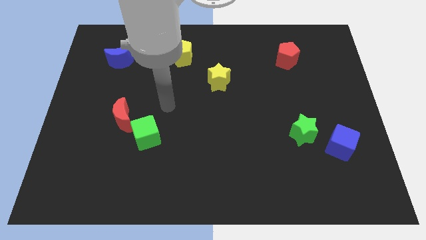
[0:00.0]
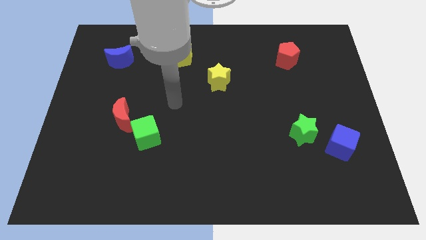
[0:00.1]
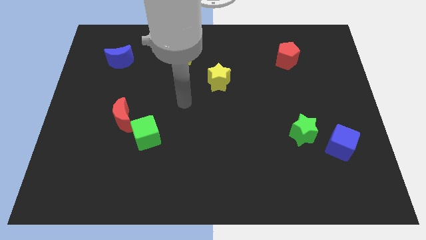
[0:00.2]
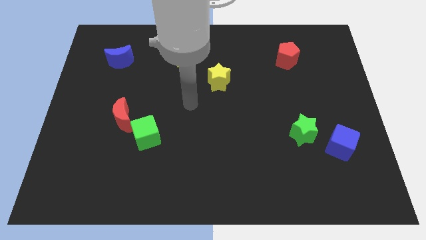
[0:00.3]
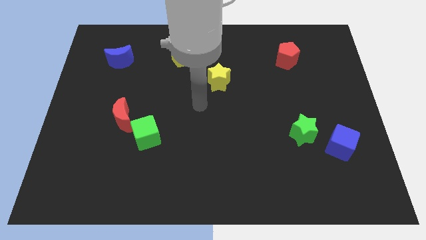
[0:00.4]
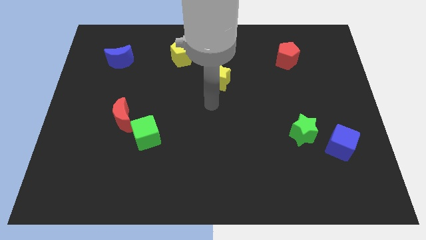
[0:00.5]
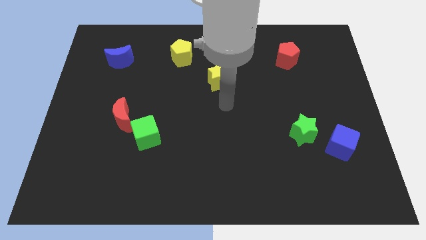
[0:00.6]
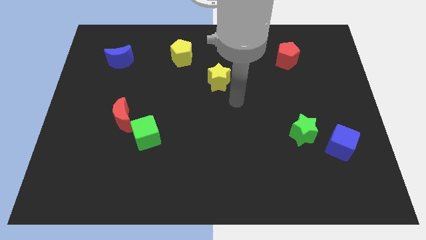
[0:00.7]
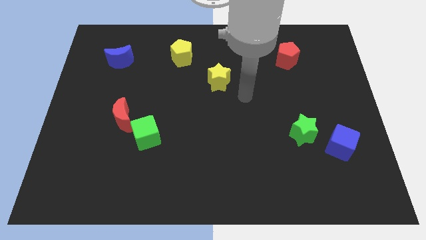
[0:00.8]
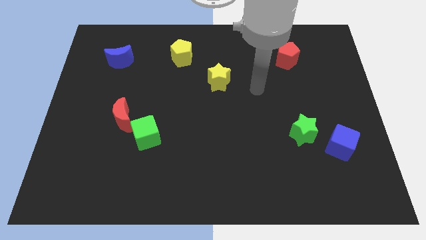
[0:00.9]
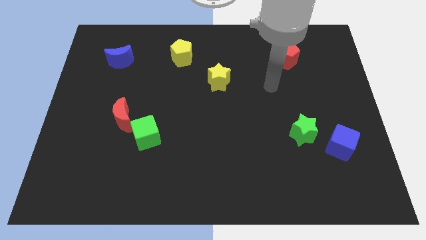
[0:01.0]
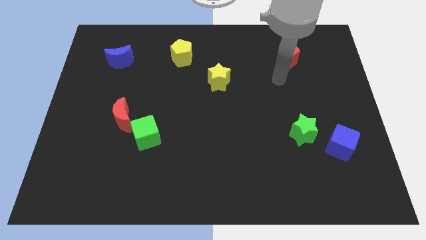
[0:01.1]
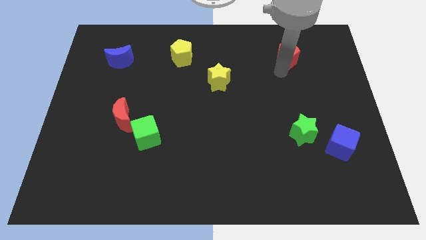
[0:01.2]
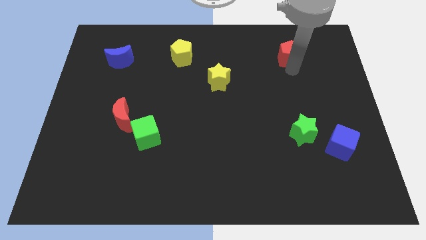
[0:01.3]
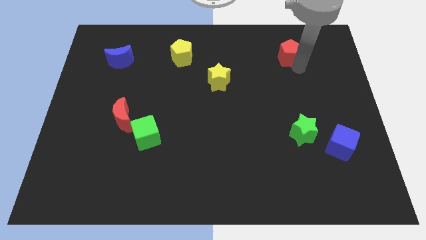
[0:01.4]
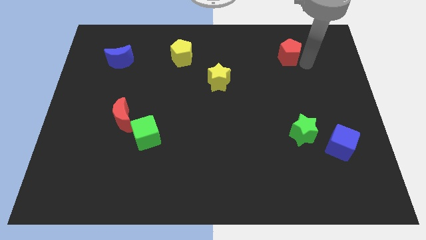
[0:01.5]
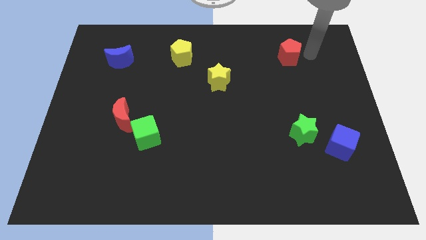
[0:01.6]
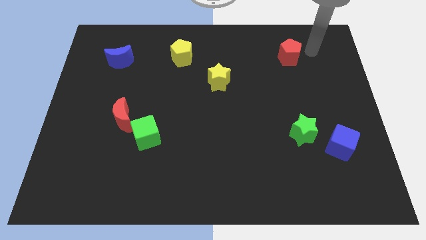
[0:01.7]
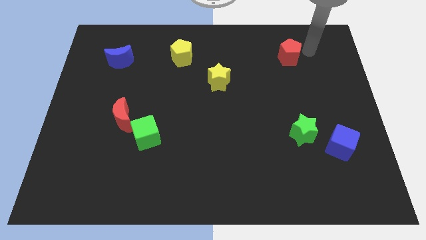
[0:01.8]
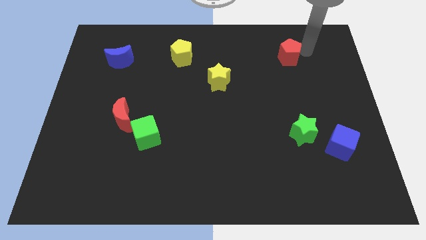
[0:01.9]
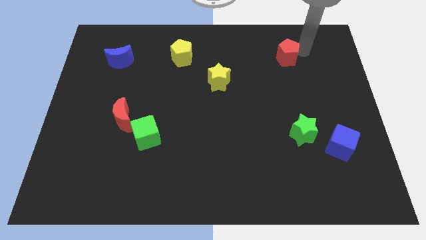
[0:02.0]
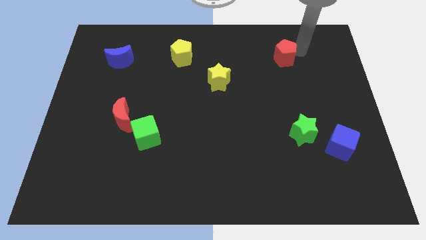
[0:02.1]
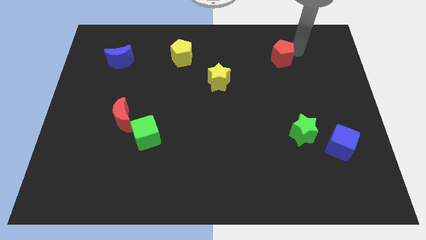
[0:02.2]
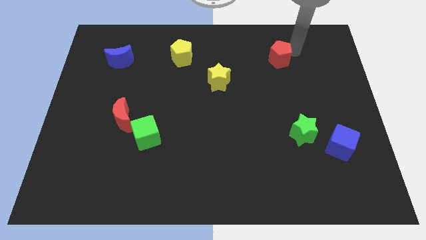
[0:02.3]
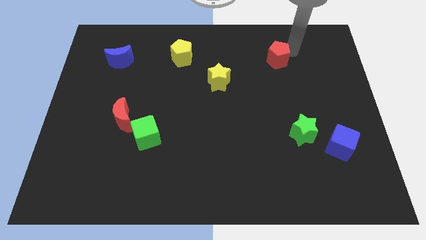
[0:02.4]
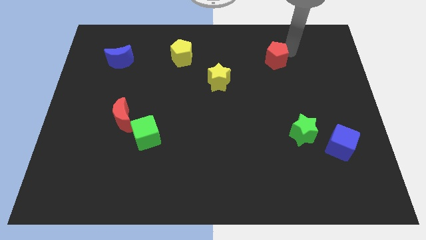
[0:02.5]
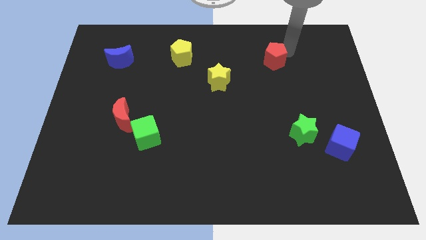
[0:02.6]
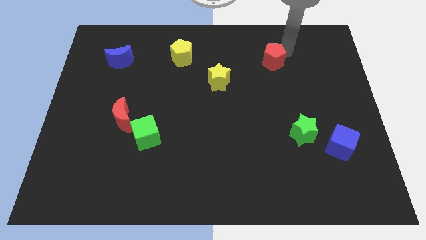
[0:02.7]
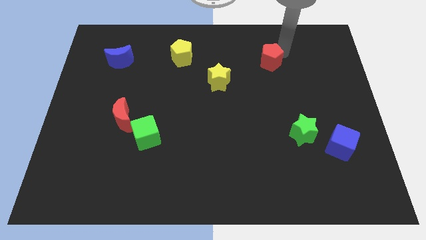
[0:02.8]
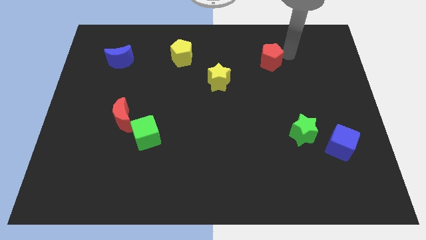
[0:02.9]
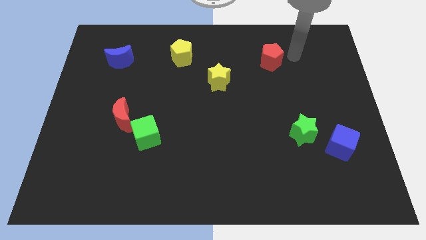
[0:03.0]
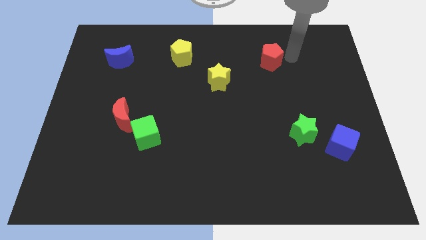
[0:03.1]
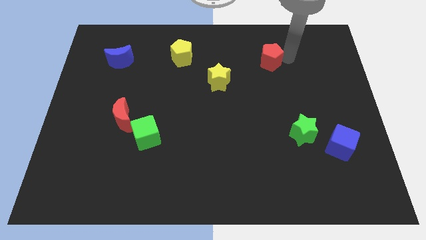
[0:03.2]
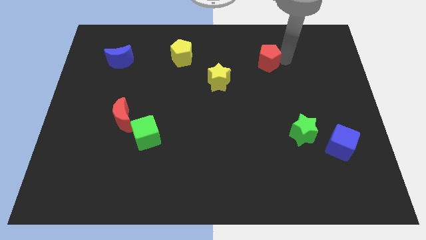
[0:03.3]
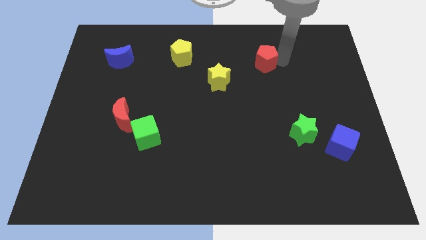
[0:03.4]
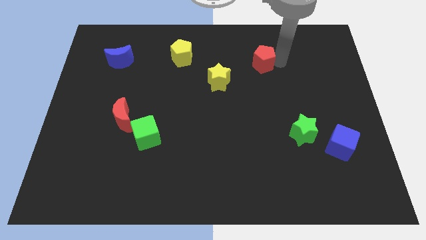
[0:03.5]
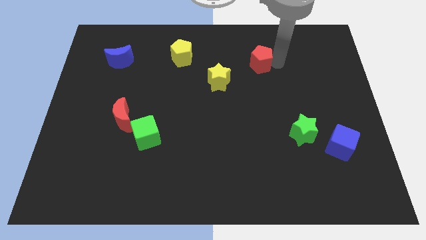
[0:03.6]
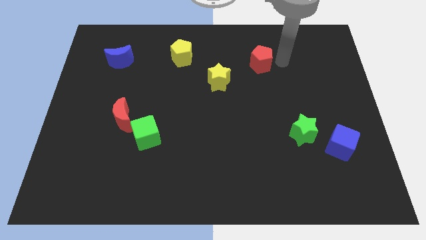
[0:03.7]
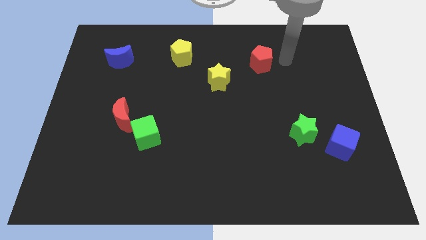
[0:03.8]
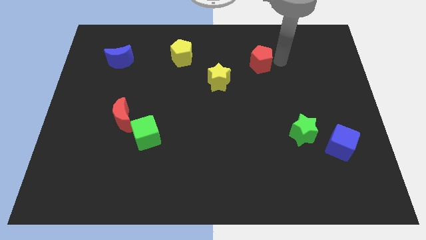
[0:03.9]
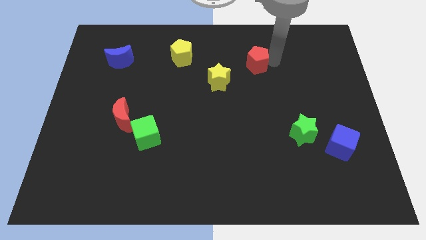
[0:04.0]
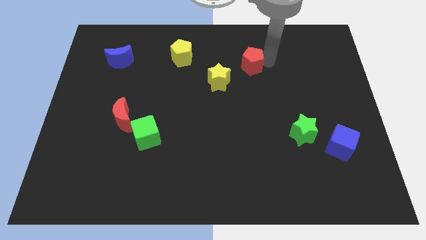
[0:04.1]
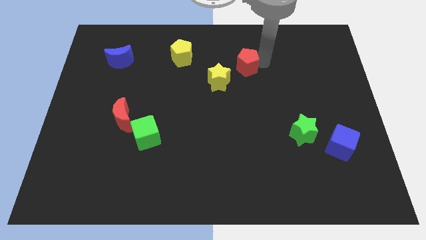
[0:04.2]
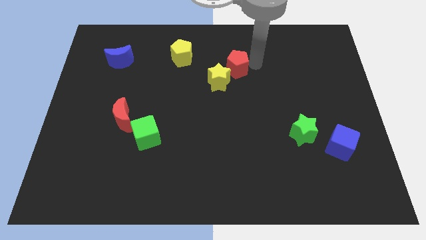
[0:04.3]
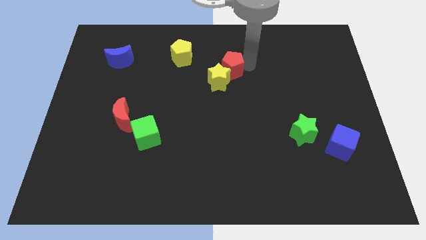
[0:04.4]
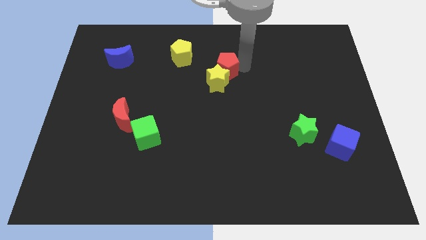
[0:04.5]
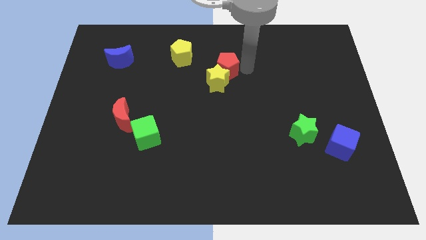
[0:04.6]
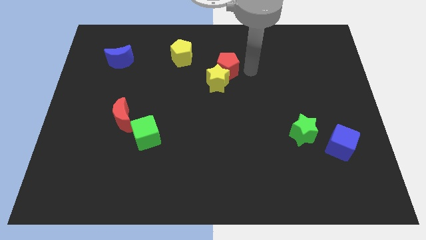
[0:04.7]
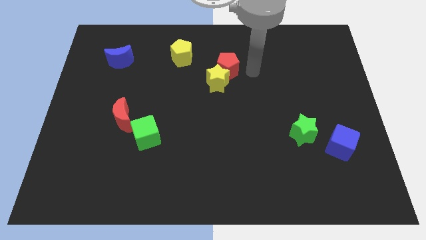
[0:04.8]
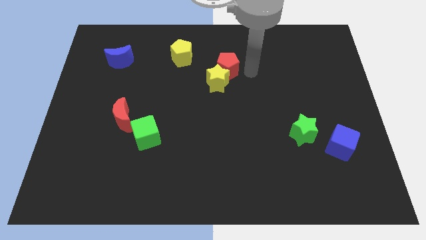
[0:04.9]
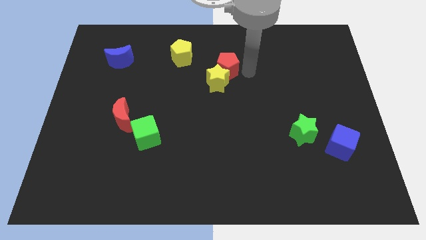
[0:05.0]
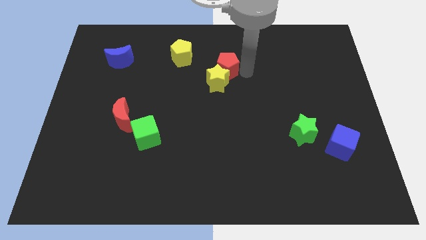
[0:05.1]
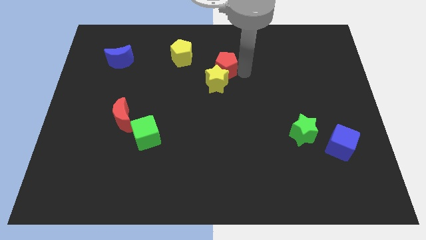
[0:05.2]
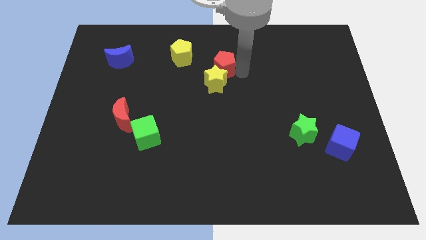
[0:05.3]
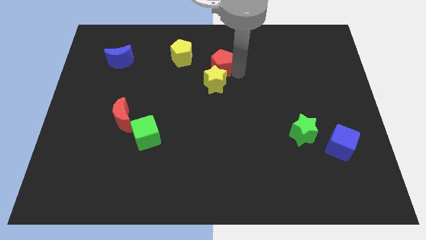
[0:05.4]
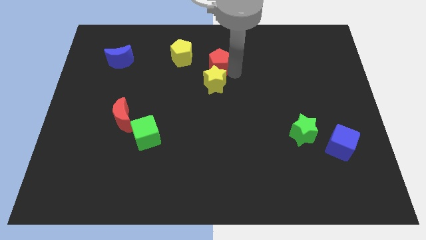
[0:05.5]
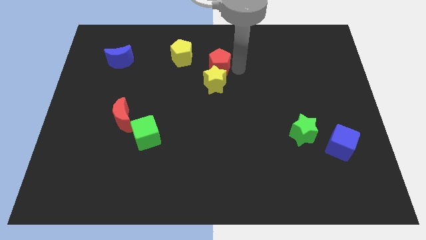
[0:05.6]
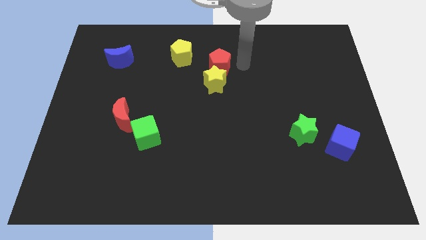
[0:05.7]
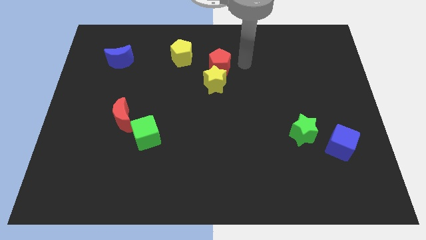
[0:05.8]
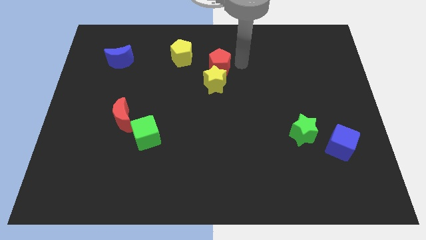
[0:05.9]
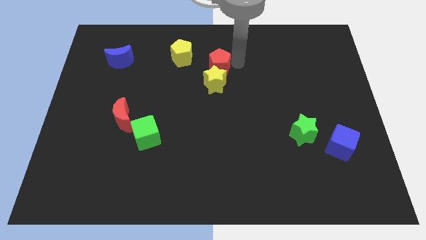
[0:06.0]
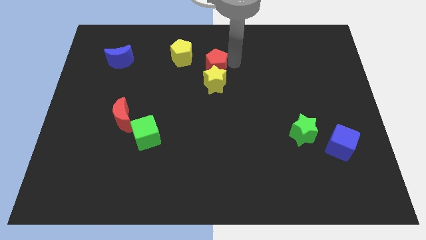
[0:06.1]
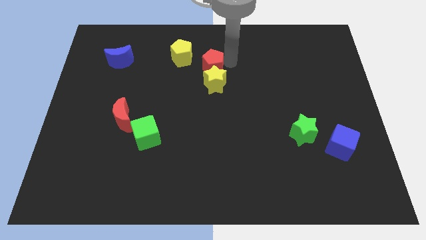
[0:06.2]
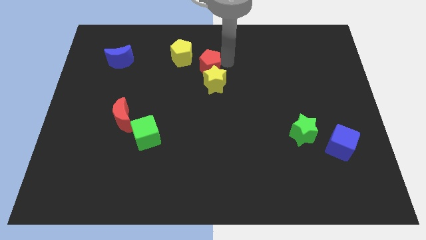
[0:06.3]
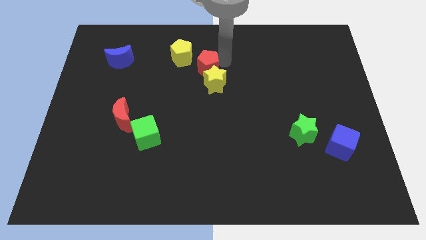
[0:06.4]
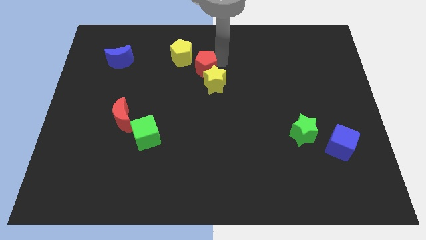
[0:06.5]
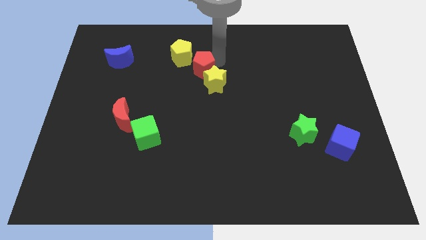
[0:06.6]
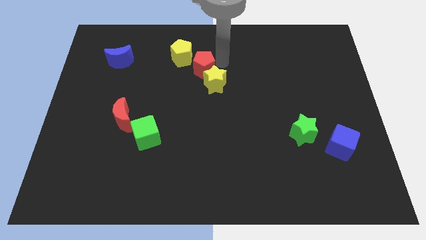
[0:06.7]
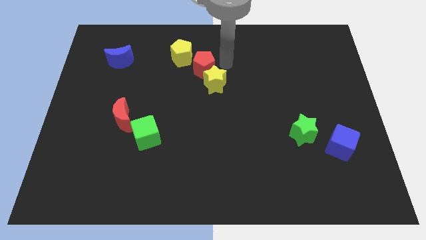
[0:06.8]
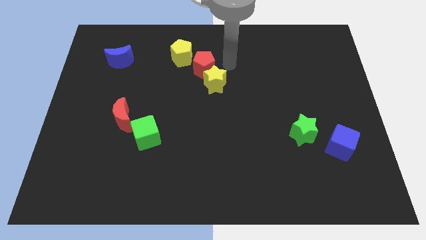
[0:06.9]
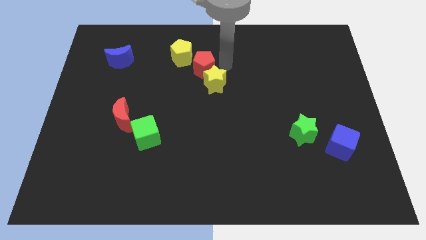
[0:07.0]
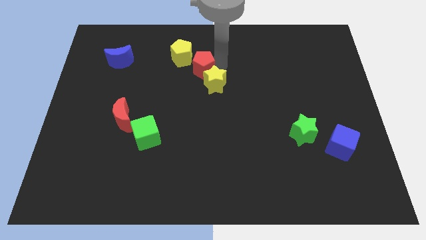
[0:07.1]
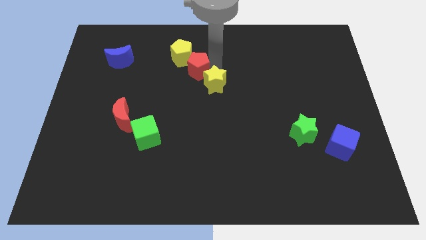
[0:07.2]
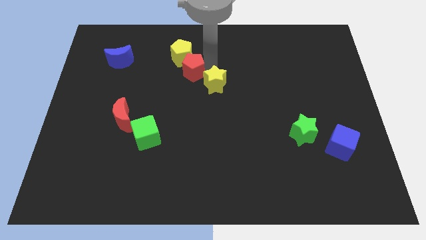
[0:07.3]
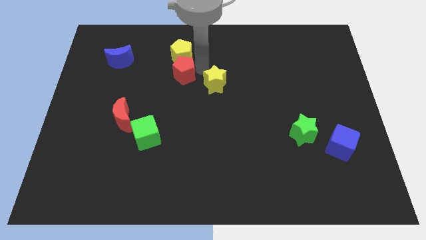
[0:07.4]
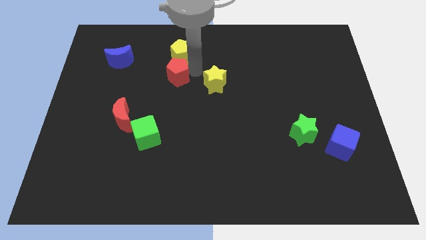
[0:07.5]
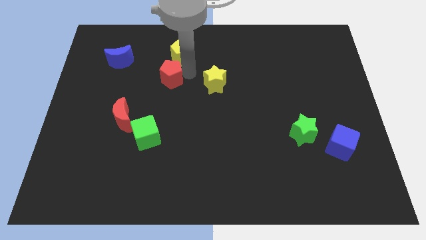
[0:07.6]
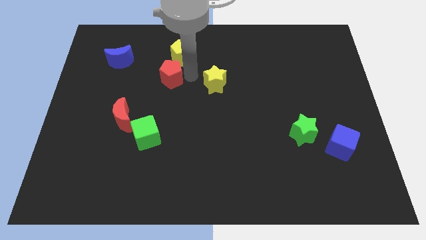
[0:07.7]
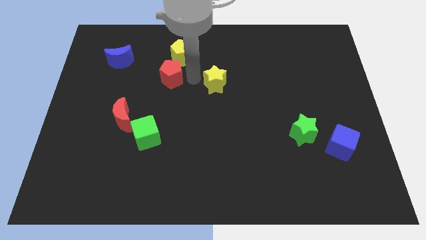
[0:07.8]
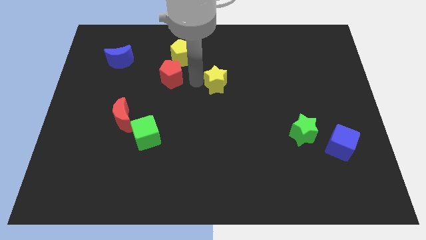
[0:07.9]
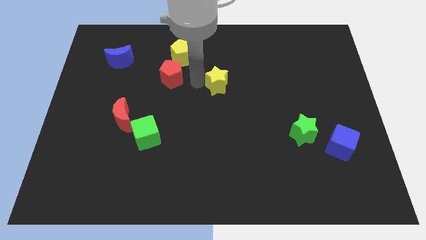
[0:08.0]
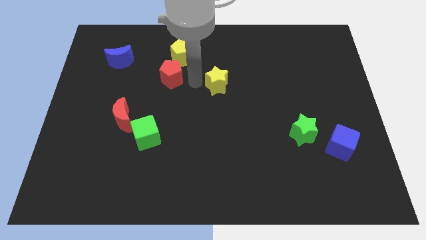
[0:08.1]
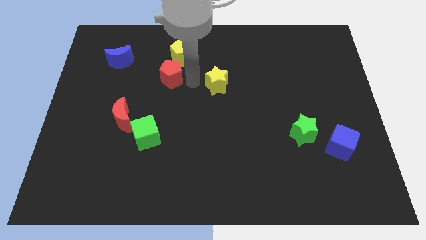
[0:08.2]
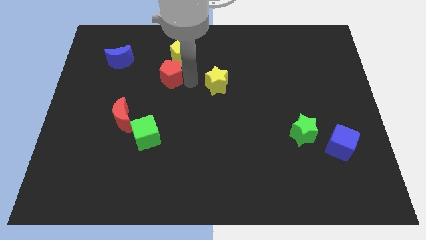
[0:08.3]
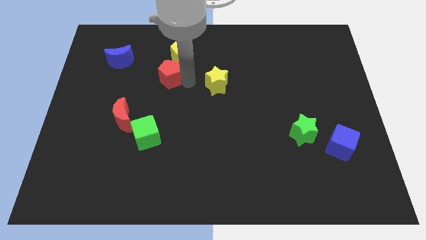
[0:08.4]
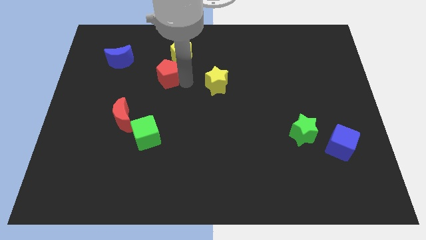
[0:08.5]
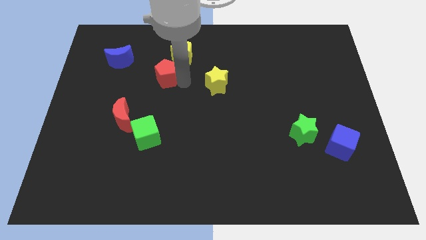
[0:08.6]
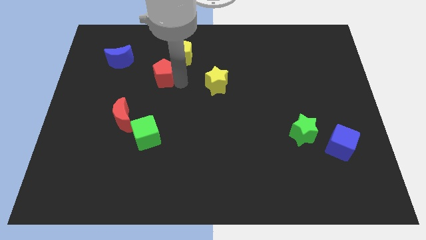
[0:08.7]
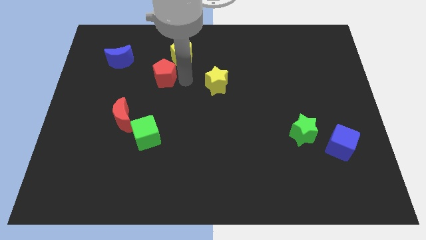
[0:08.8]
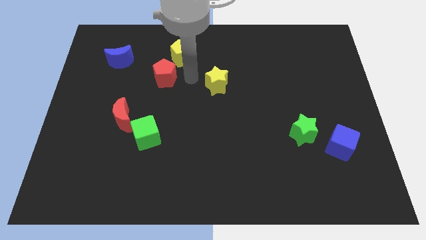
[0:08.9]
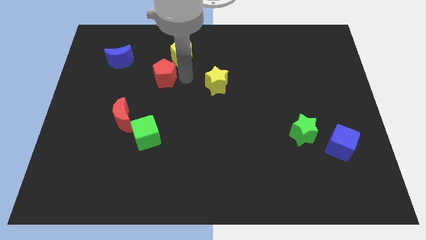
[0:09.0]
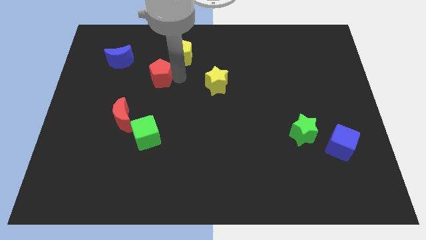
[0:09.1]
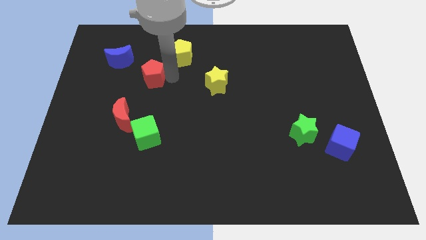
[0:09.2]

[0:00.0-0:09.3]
slide the red pentagon to the bottom right side of the blue moon
